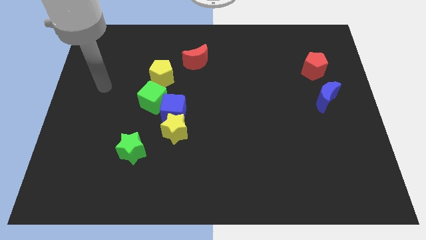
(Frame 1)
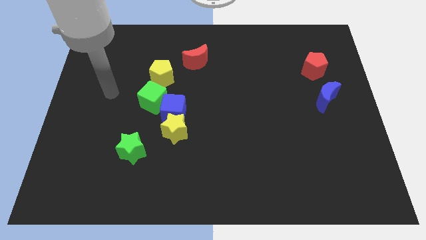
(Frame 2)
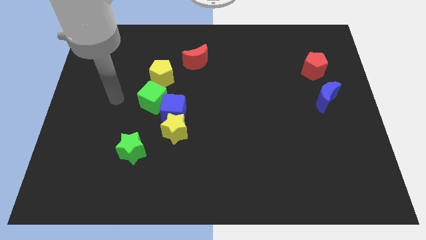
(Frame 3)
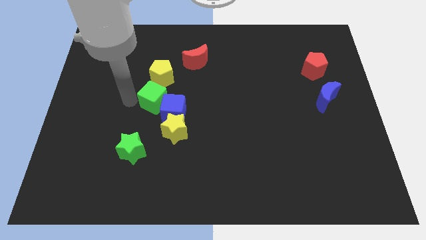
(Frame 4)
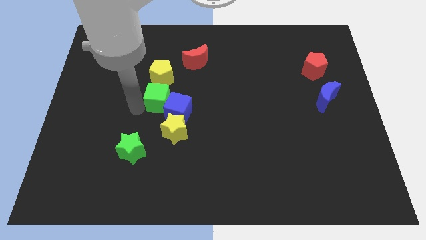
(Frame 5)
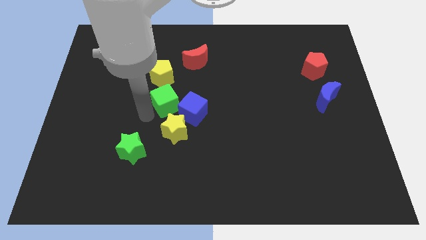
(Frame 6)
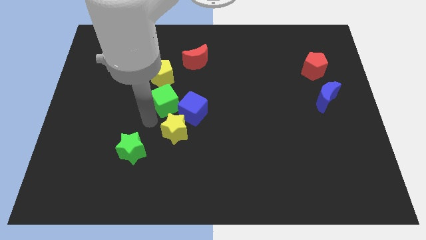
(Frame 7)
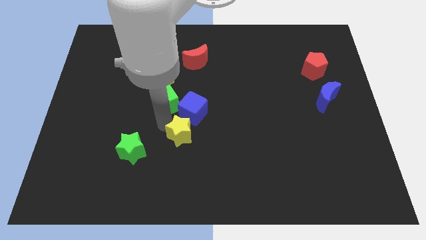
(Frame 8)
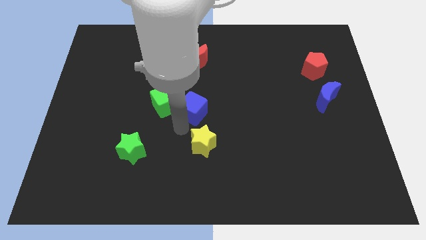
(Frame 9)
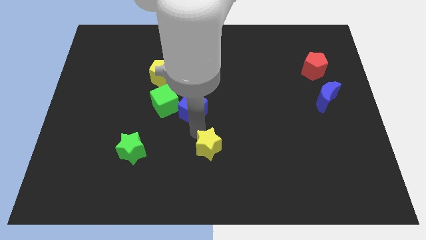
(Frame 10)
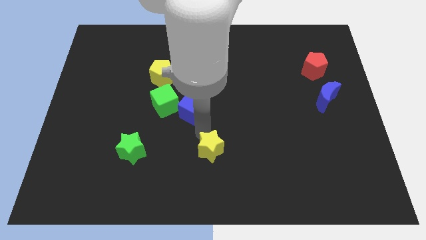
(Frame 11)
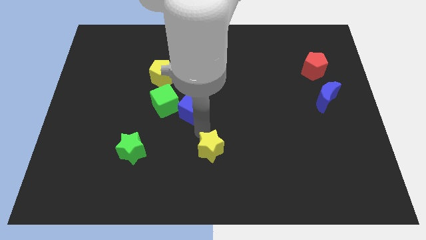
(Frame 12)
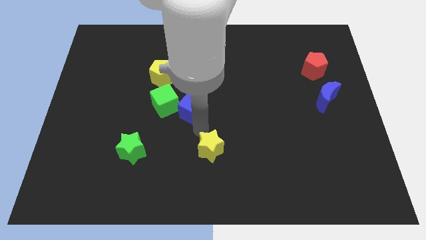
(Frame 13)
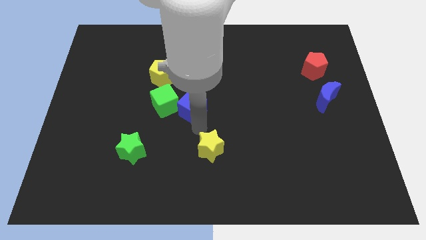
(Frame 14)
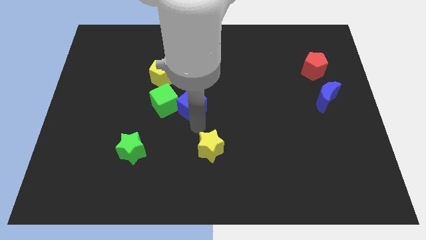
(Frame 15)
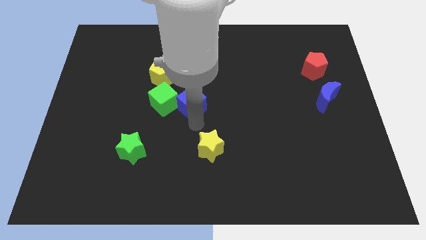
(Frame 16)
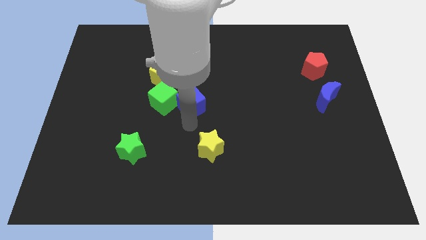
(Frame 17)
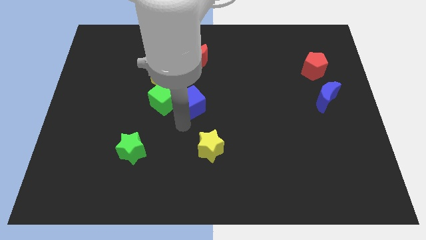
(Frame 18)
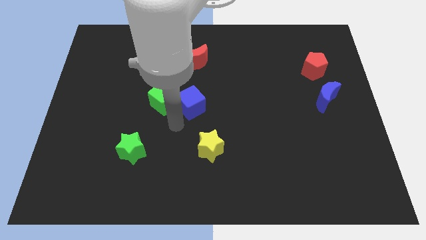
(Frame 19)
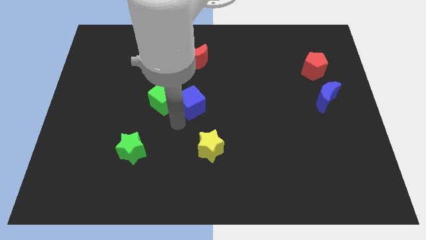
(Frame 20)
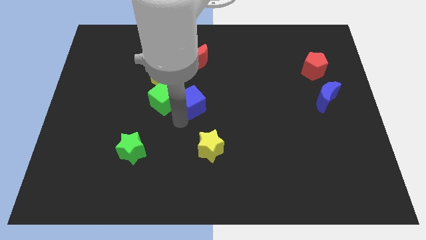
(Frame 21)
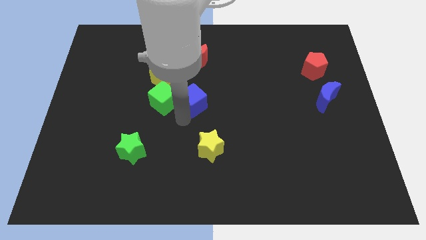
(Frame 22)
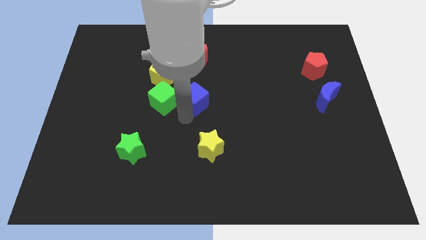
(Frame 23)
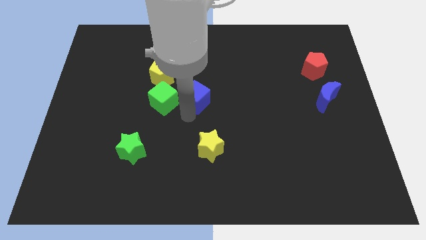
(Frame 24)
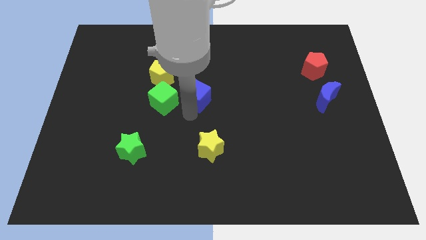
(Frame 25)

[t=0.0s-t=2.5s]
push the blue cube a little bit diagonally upwards and right

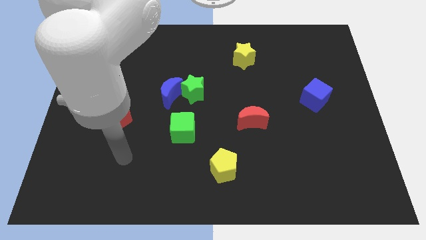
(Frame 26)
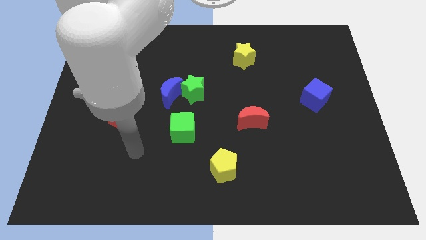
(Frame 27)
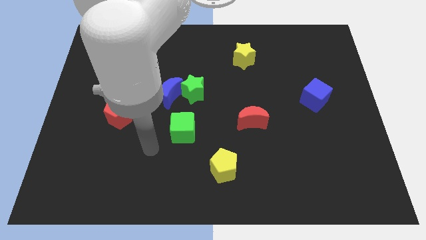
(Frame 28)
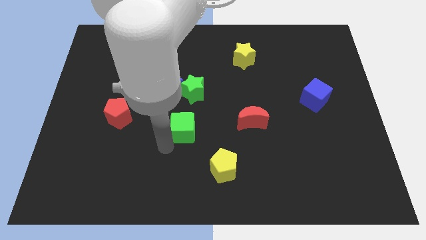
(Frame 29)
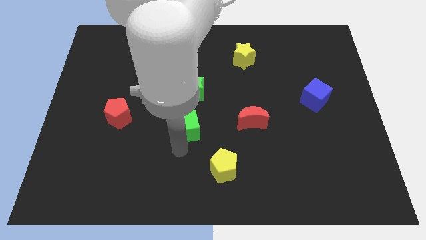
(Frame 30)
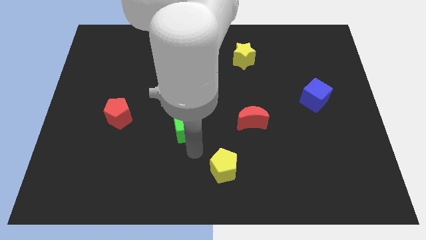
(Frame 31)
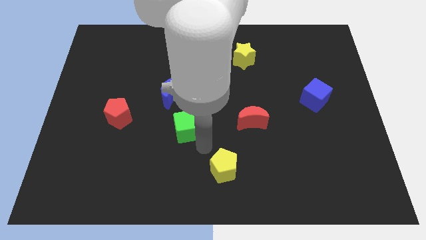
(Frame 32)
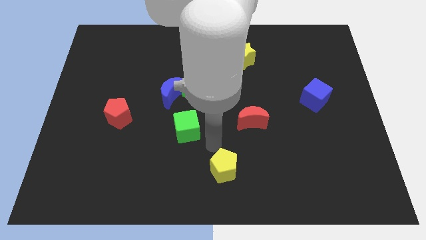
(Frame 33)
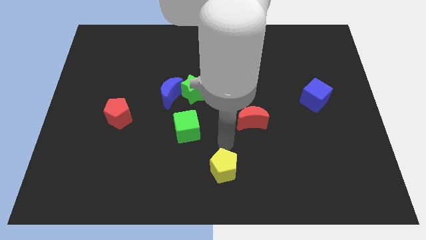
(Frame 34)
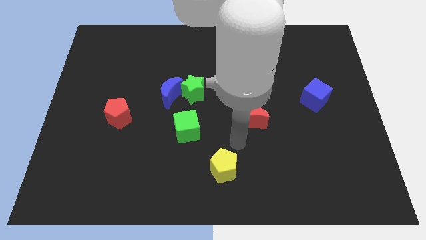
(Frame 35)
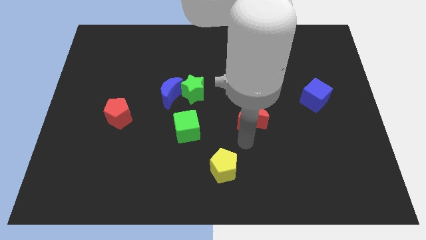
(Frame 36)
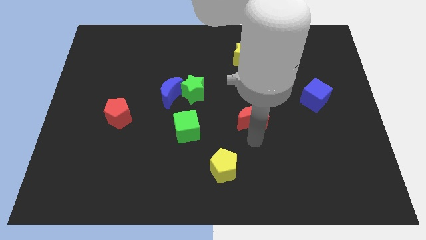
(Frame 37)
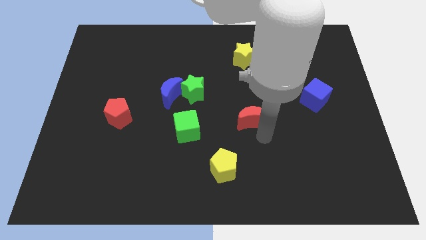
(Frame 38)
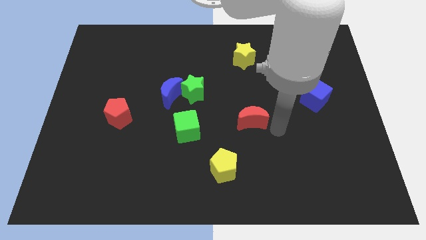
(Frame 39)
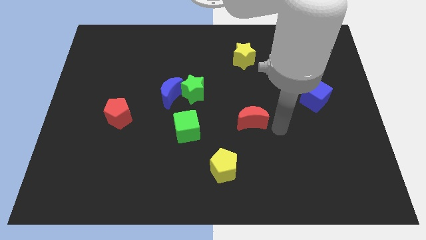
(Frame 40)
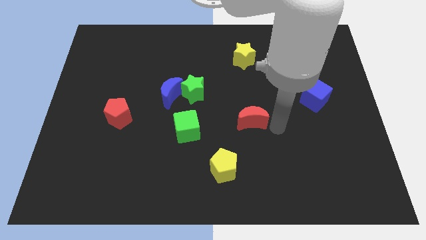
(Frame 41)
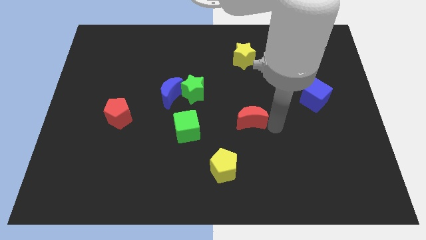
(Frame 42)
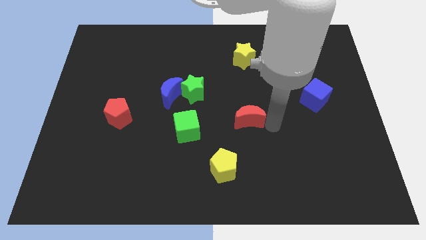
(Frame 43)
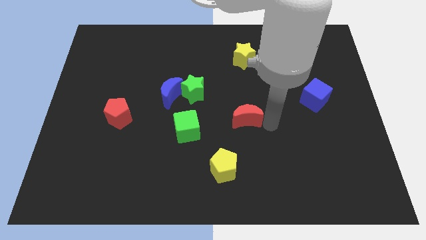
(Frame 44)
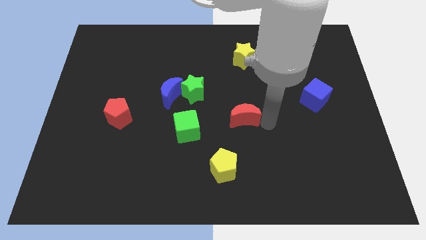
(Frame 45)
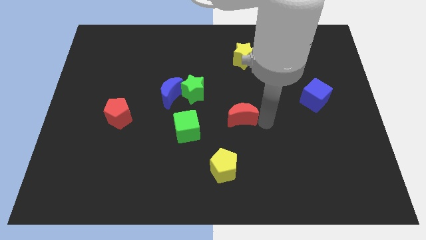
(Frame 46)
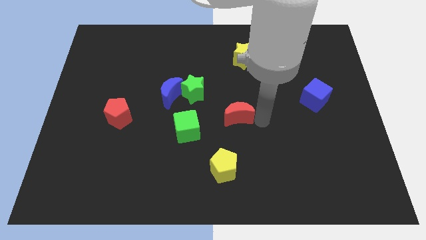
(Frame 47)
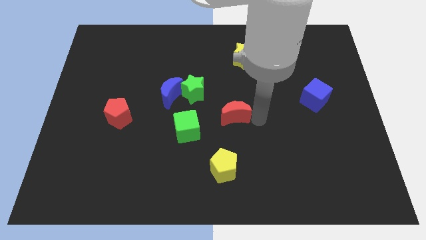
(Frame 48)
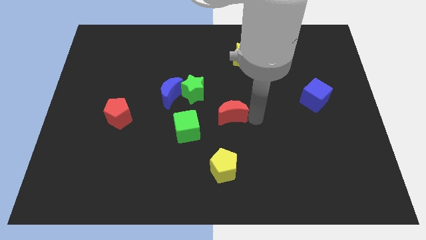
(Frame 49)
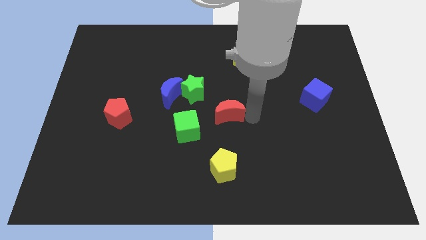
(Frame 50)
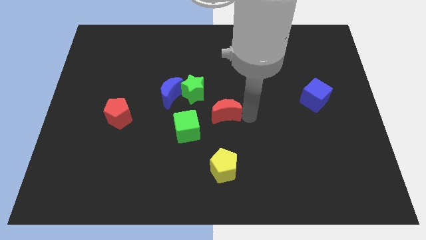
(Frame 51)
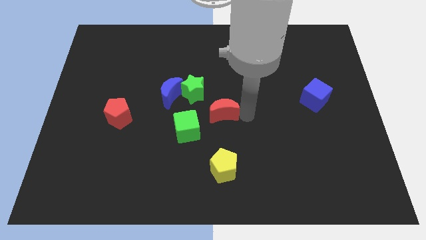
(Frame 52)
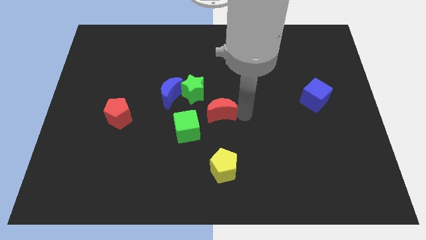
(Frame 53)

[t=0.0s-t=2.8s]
move the red moon somewhat to the left

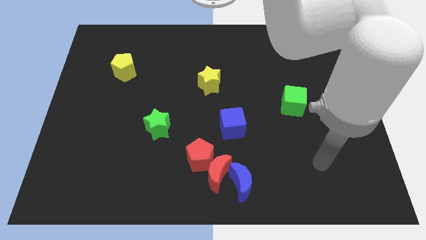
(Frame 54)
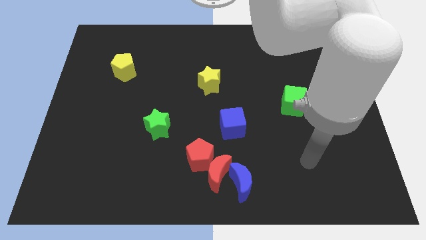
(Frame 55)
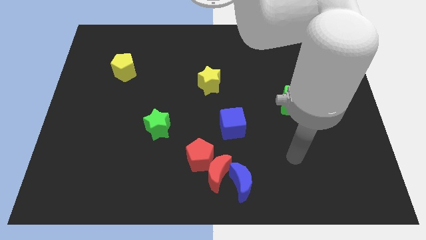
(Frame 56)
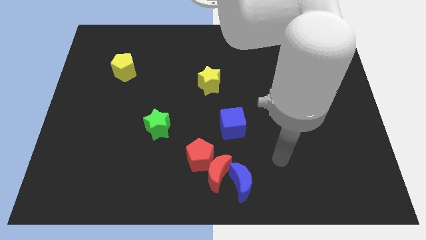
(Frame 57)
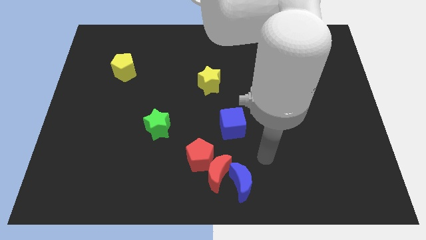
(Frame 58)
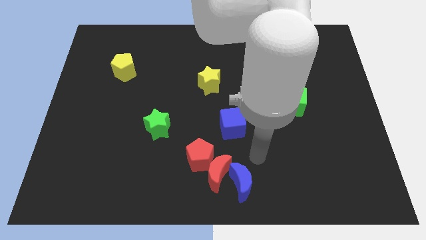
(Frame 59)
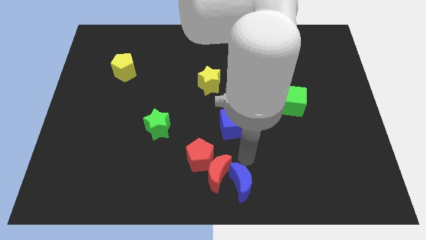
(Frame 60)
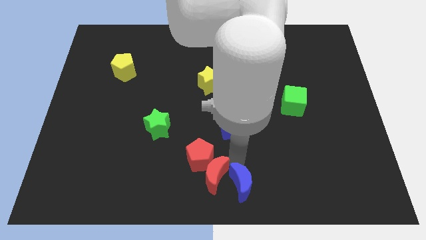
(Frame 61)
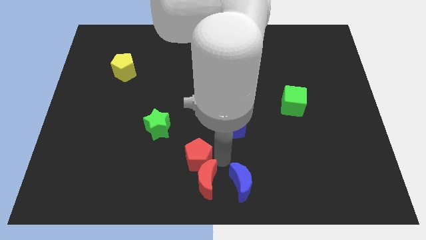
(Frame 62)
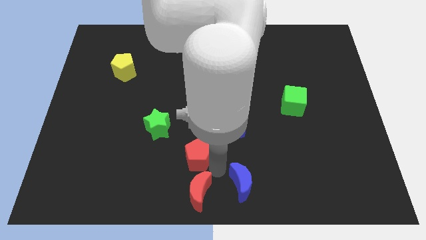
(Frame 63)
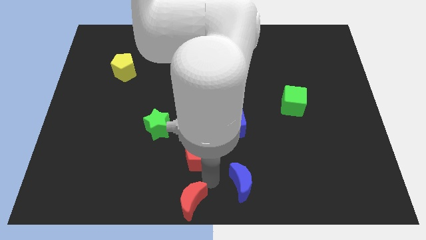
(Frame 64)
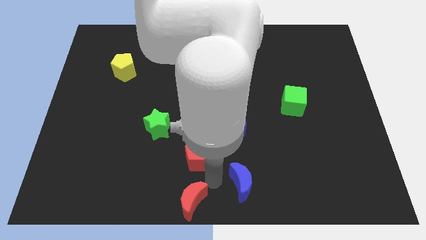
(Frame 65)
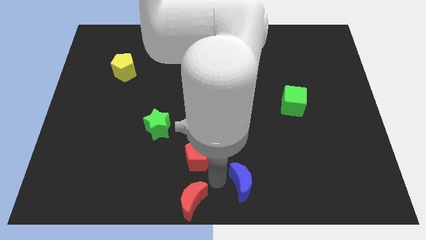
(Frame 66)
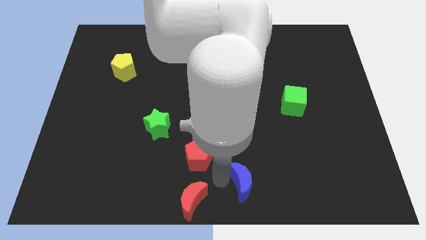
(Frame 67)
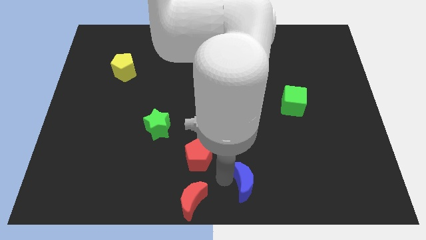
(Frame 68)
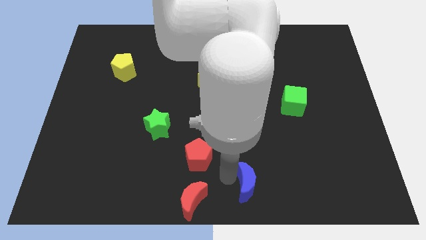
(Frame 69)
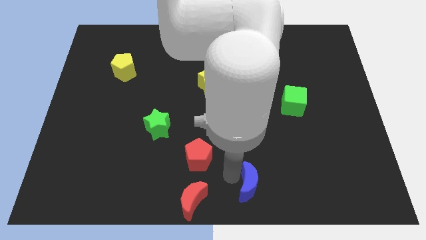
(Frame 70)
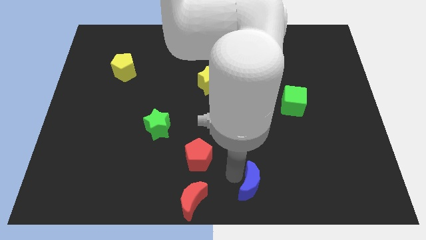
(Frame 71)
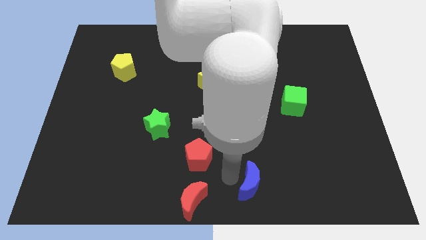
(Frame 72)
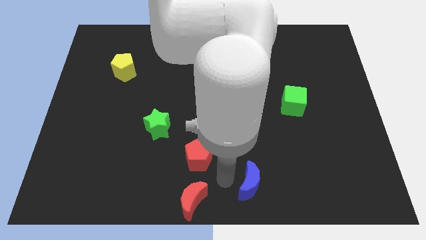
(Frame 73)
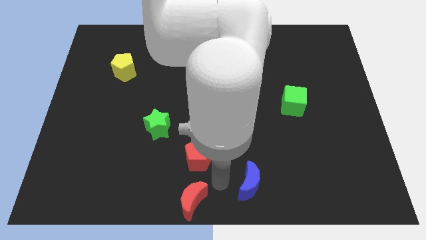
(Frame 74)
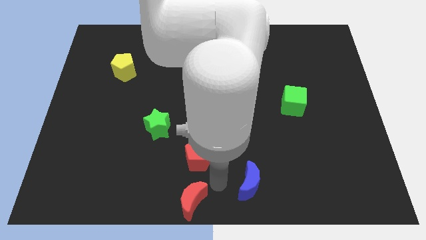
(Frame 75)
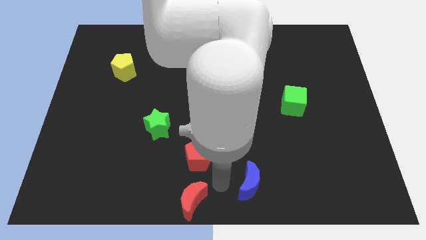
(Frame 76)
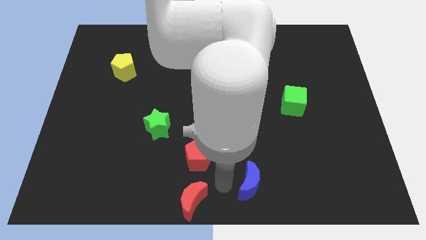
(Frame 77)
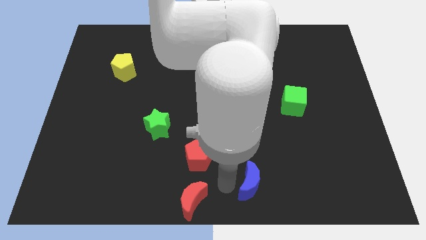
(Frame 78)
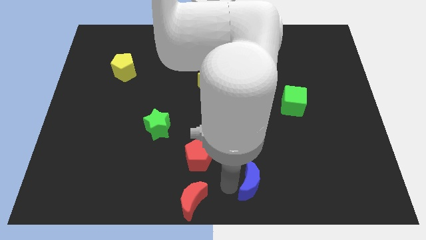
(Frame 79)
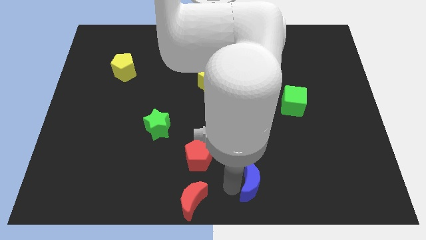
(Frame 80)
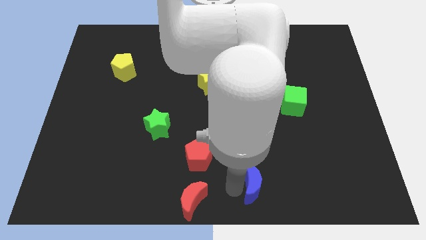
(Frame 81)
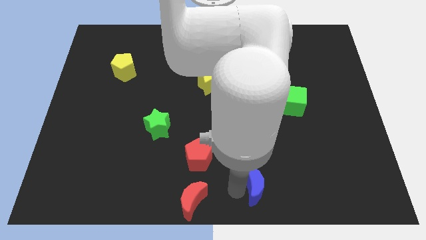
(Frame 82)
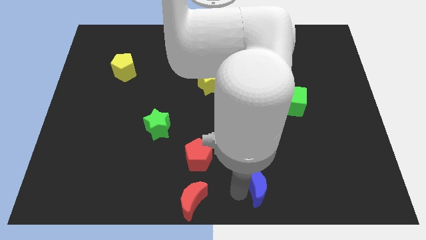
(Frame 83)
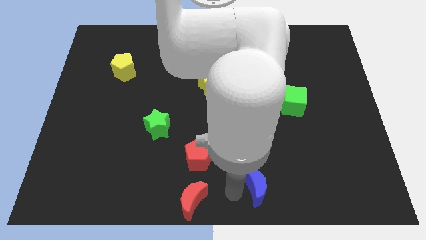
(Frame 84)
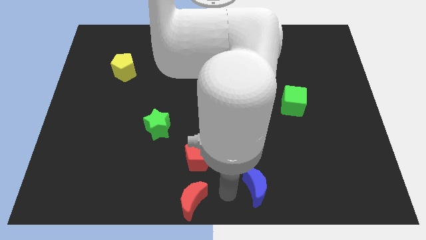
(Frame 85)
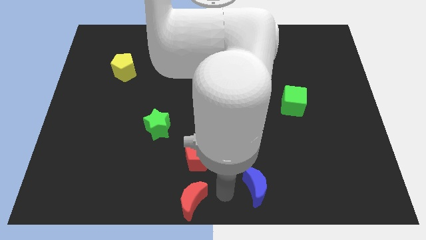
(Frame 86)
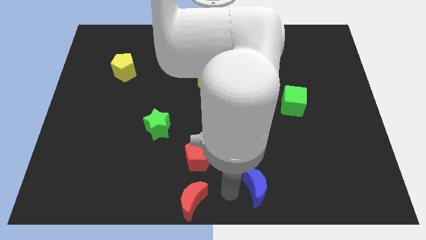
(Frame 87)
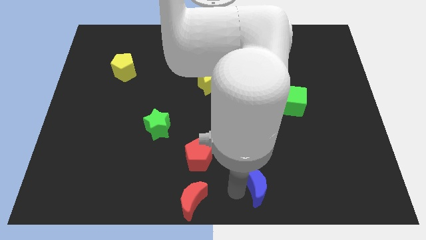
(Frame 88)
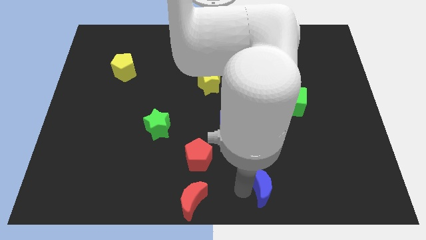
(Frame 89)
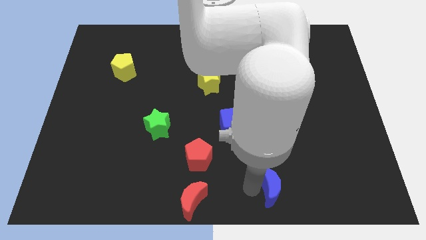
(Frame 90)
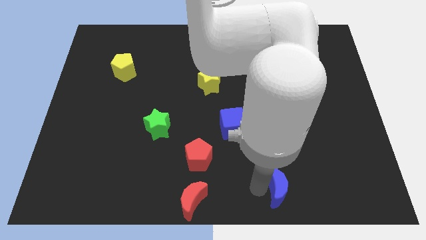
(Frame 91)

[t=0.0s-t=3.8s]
slightly move the blue moon right
